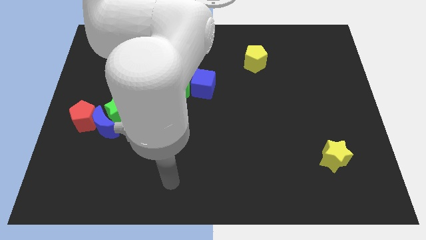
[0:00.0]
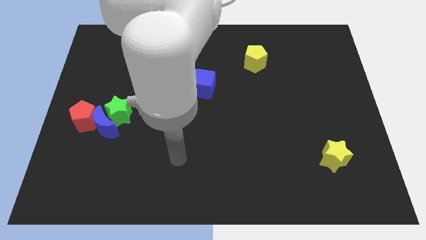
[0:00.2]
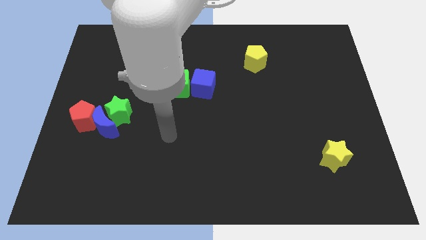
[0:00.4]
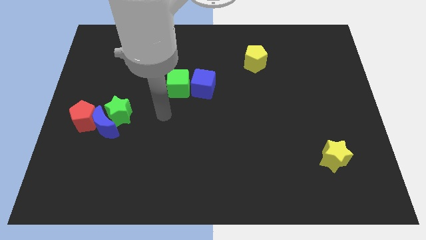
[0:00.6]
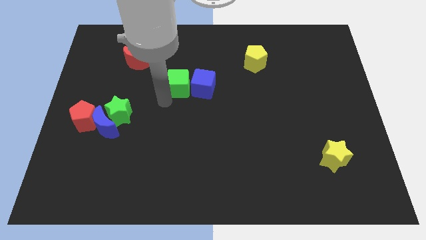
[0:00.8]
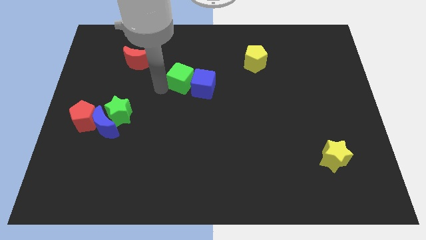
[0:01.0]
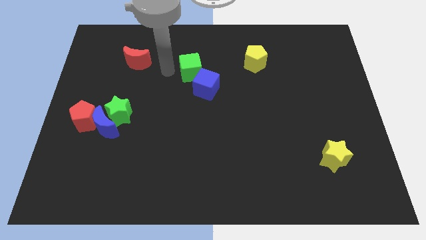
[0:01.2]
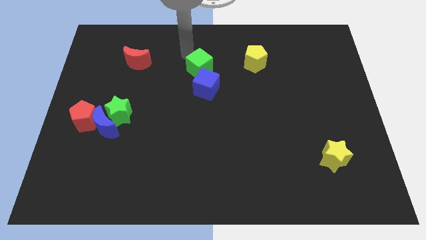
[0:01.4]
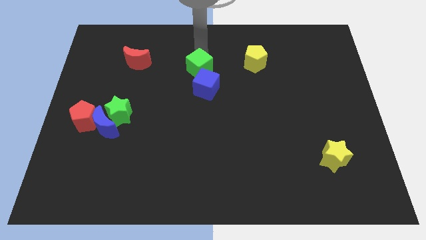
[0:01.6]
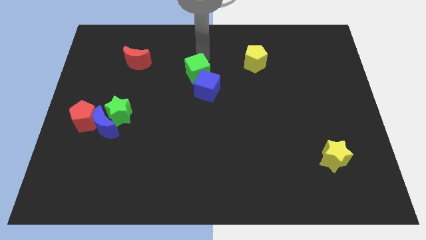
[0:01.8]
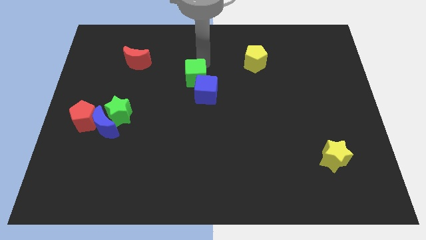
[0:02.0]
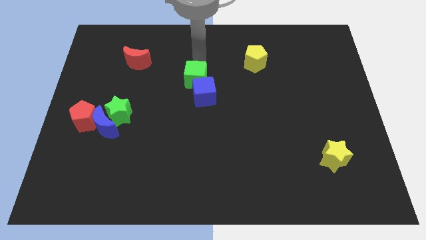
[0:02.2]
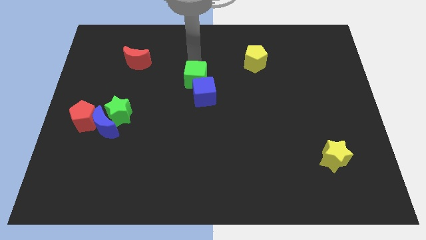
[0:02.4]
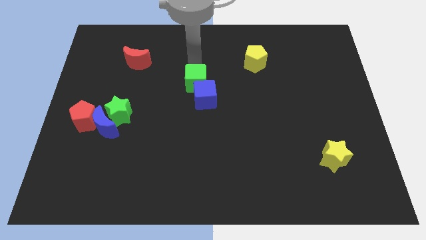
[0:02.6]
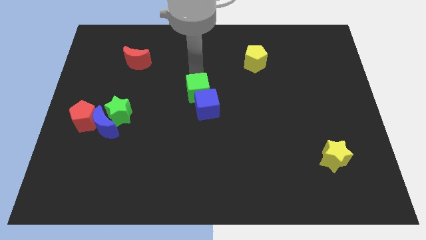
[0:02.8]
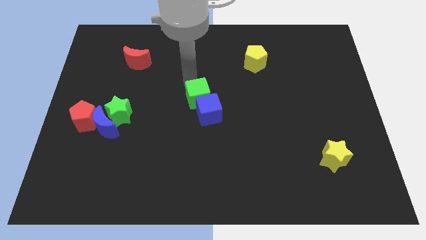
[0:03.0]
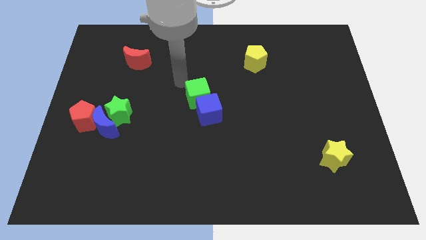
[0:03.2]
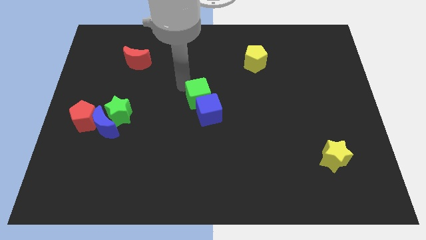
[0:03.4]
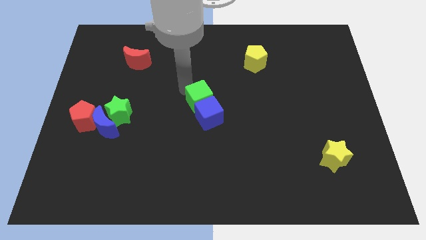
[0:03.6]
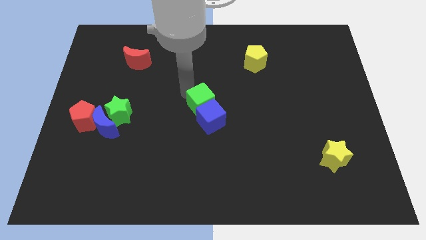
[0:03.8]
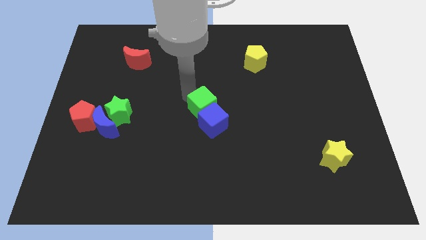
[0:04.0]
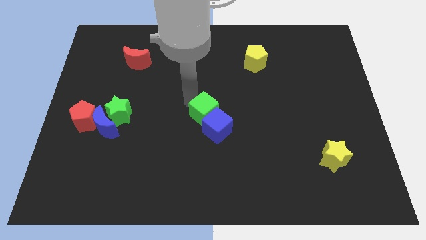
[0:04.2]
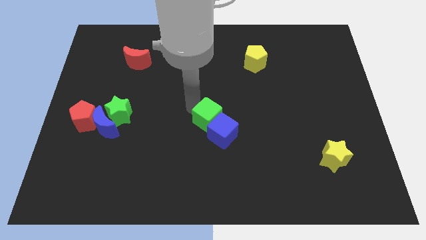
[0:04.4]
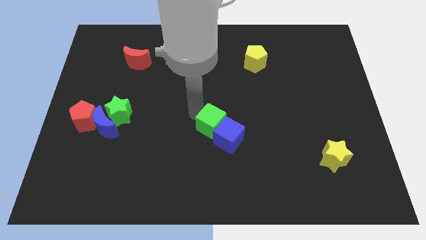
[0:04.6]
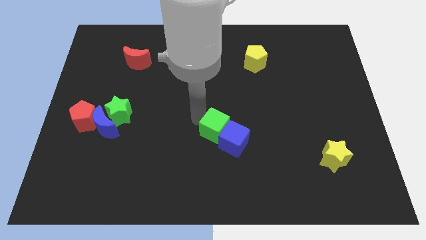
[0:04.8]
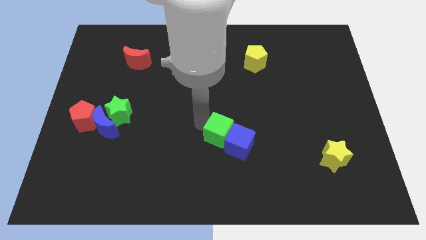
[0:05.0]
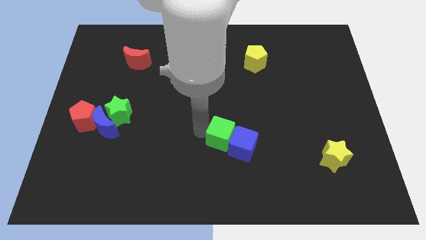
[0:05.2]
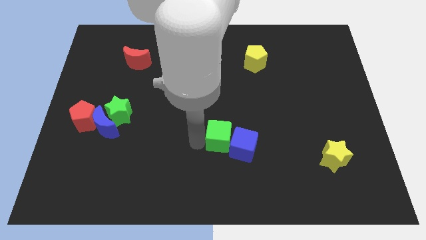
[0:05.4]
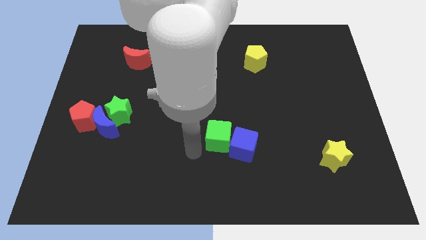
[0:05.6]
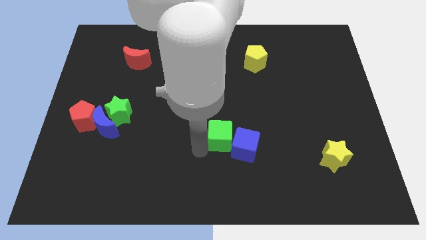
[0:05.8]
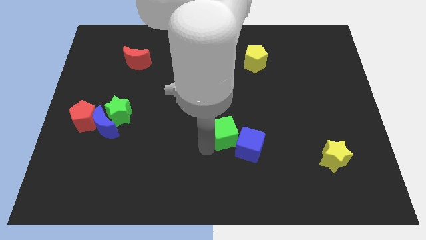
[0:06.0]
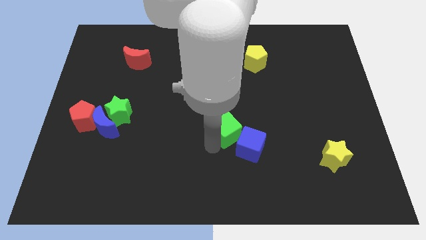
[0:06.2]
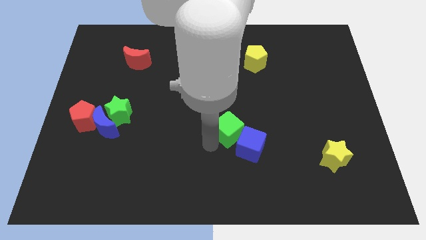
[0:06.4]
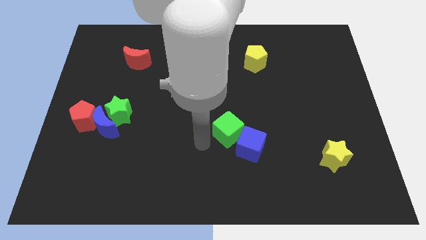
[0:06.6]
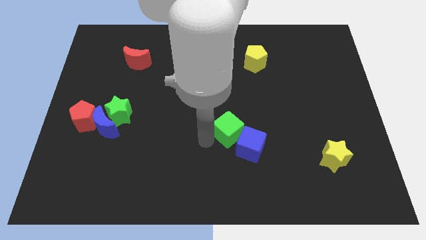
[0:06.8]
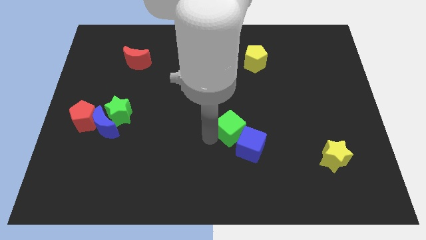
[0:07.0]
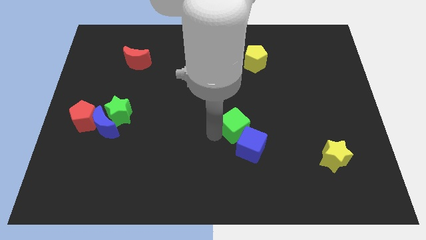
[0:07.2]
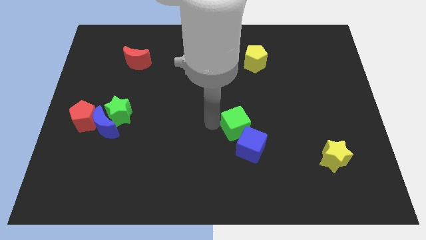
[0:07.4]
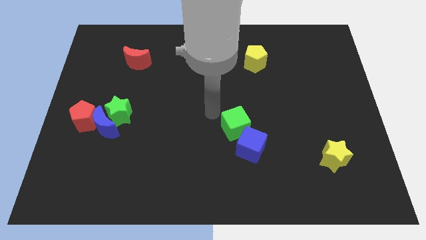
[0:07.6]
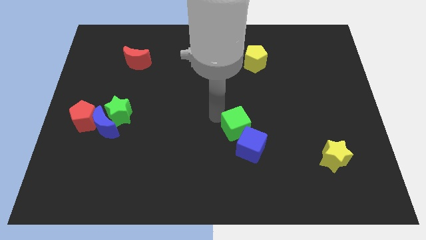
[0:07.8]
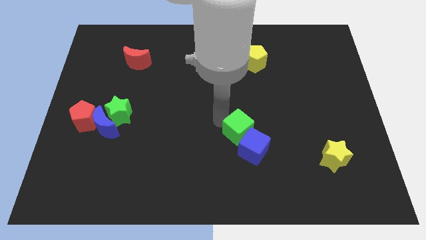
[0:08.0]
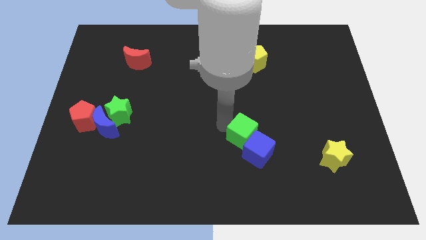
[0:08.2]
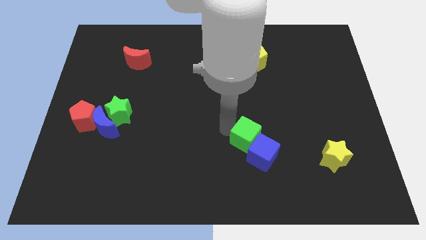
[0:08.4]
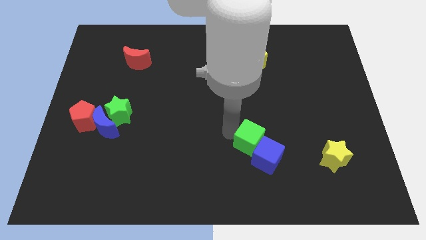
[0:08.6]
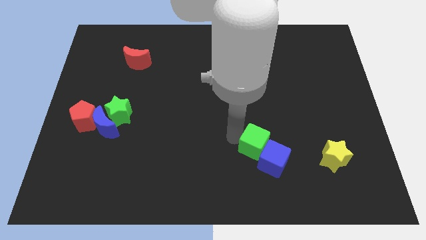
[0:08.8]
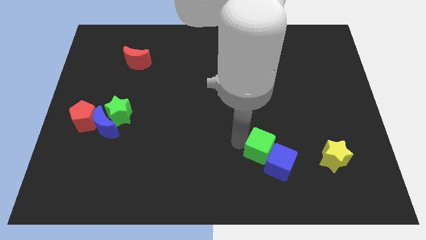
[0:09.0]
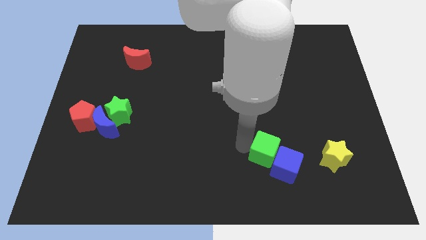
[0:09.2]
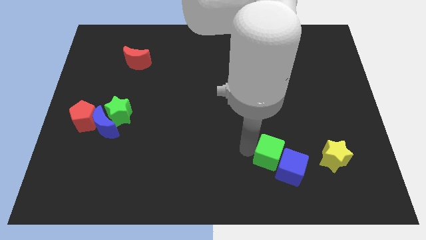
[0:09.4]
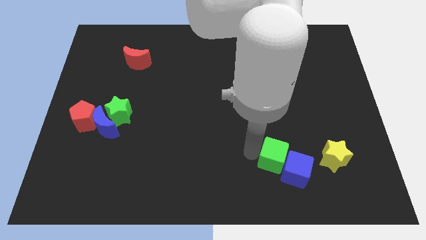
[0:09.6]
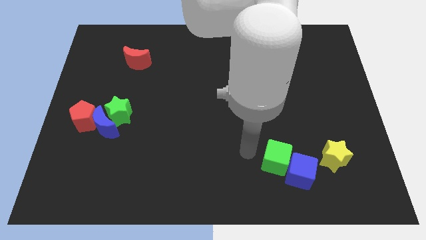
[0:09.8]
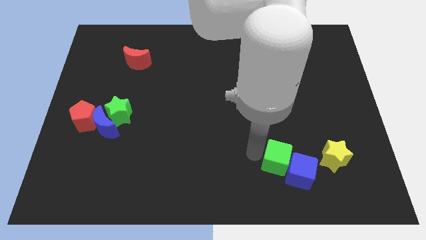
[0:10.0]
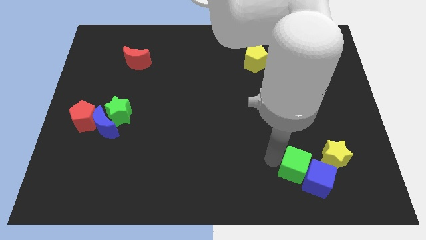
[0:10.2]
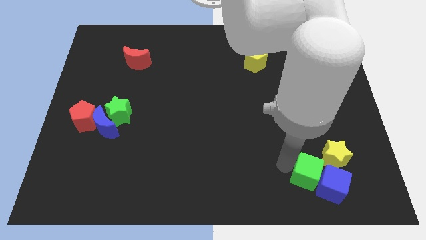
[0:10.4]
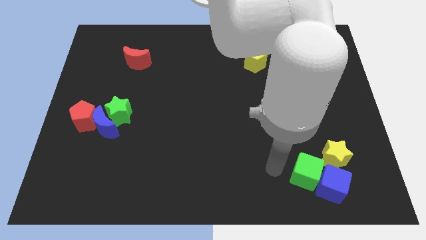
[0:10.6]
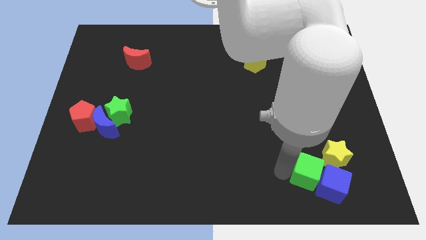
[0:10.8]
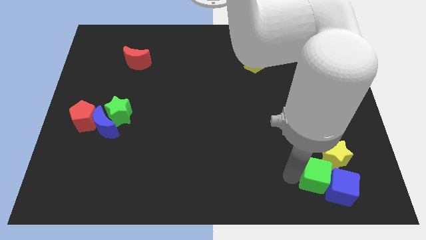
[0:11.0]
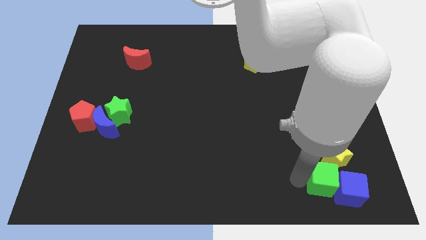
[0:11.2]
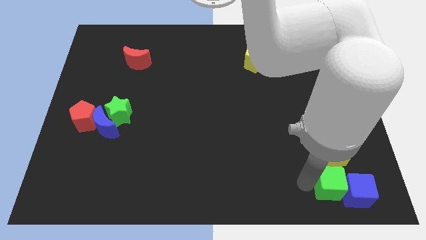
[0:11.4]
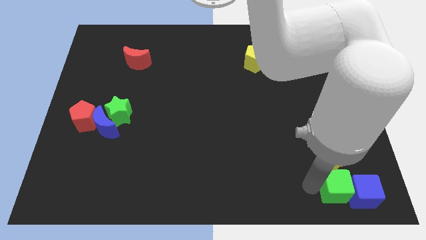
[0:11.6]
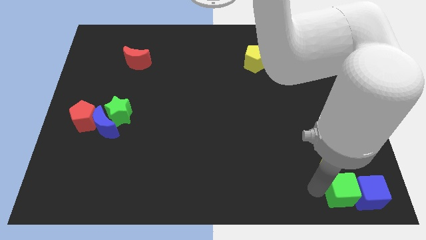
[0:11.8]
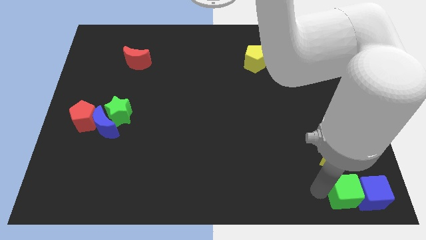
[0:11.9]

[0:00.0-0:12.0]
push the green cube to the bottom right corner
